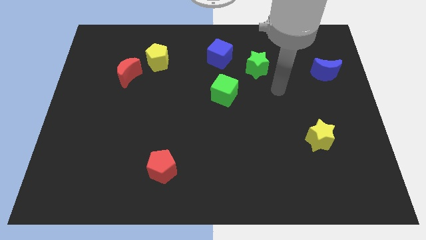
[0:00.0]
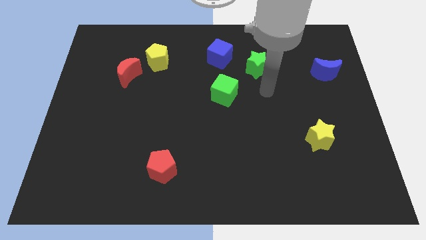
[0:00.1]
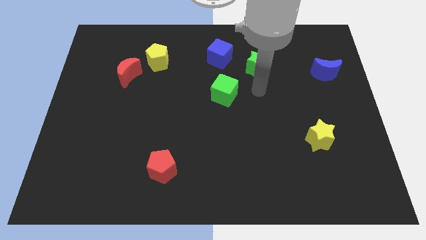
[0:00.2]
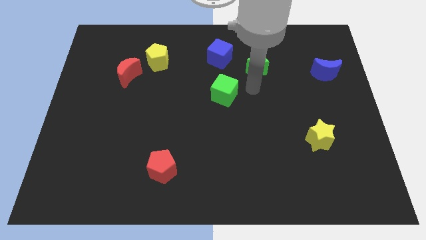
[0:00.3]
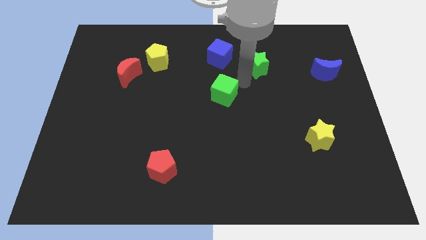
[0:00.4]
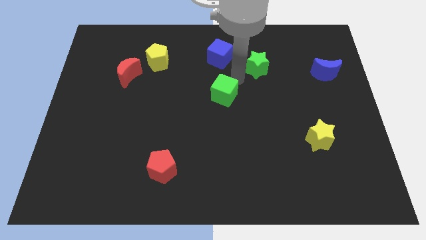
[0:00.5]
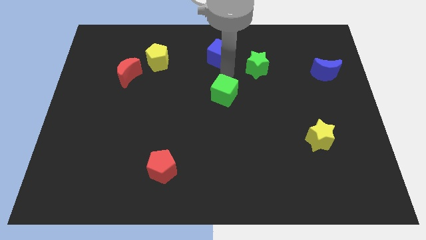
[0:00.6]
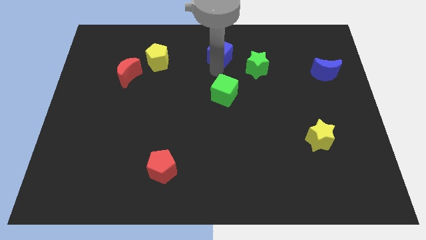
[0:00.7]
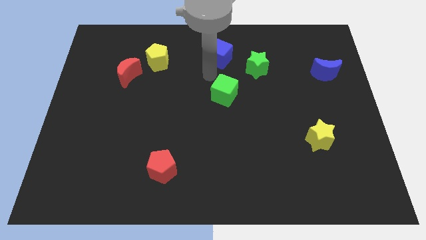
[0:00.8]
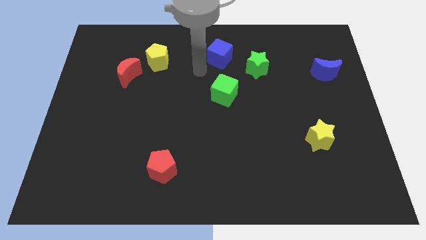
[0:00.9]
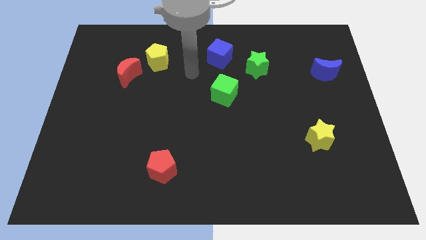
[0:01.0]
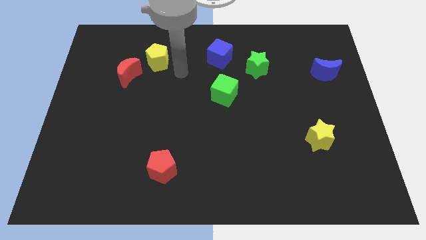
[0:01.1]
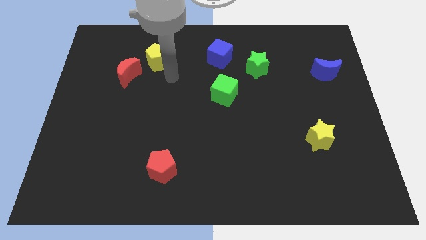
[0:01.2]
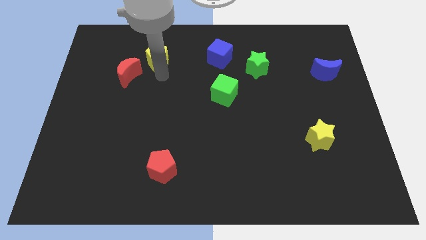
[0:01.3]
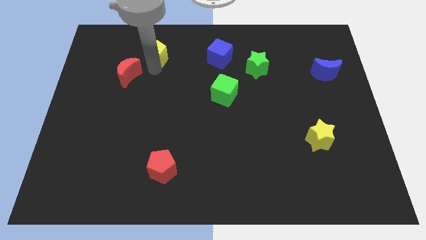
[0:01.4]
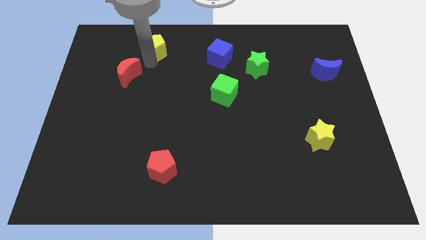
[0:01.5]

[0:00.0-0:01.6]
move the red moon away from the yellow pentagon

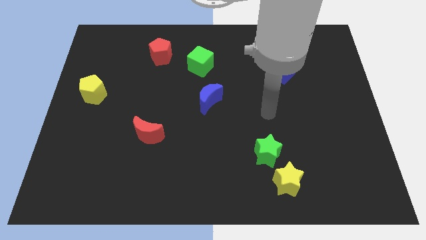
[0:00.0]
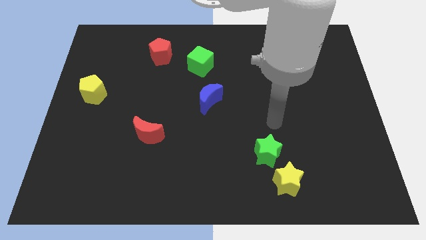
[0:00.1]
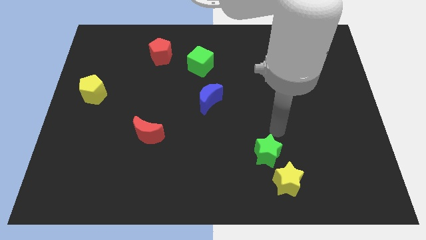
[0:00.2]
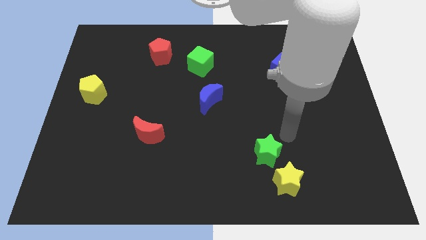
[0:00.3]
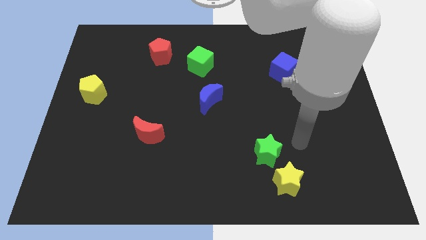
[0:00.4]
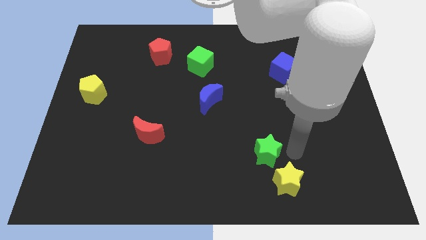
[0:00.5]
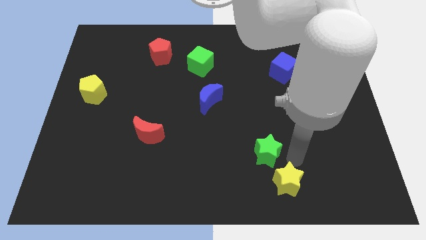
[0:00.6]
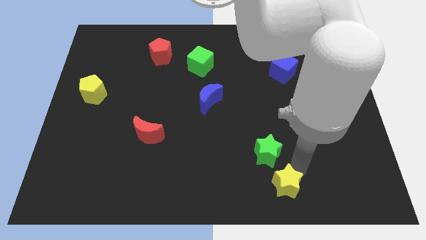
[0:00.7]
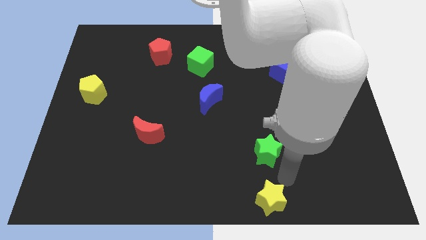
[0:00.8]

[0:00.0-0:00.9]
move the green star away from the yellow star

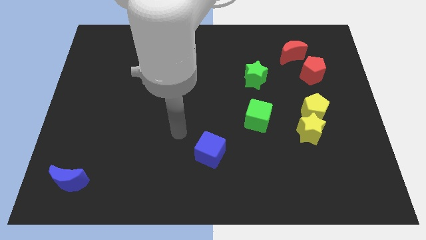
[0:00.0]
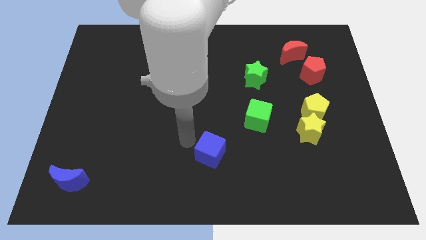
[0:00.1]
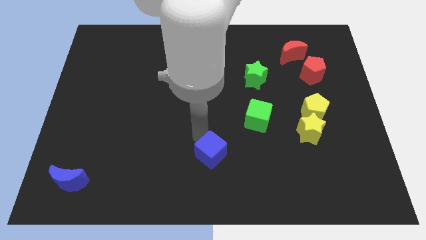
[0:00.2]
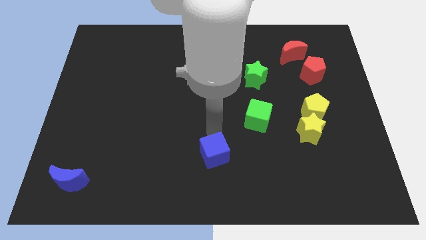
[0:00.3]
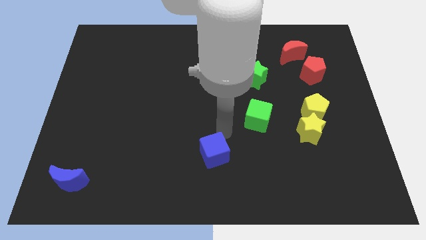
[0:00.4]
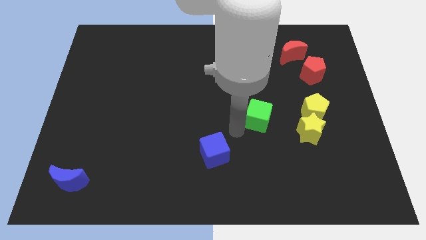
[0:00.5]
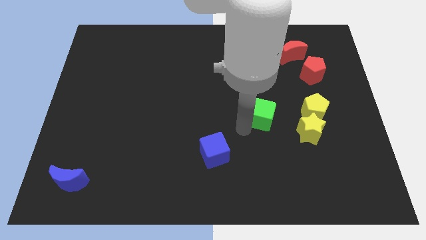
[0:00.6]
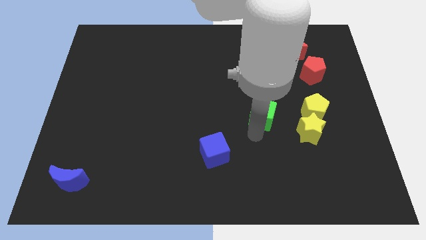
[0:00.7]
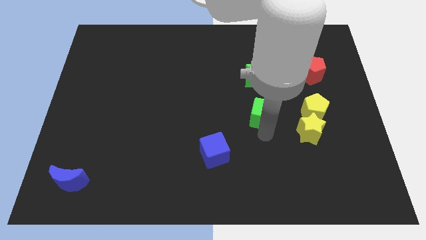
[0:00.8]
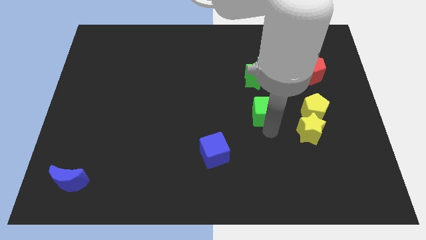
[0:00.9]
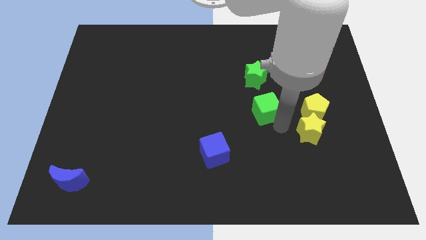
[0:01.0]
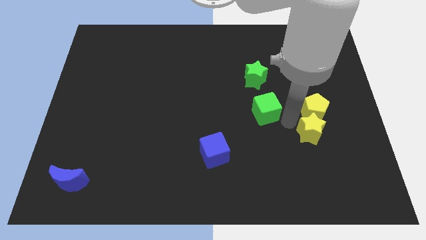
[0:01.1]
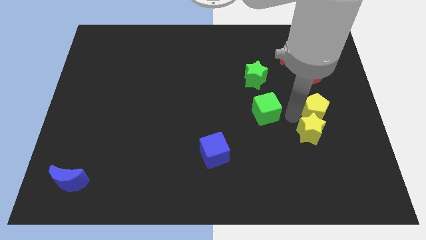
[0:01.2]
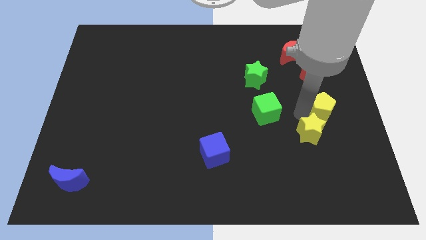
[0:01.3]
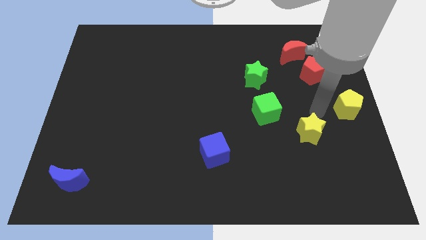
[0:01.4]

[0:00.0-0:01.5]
pull the yellow star apart from the yellow pentagon

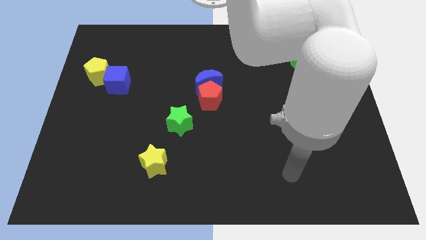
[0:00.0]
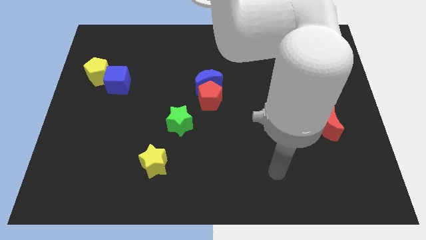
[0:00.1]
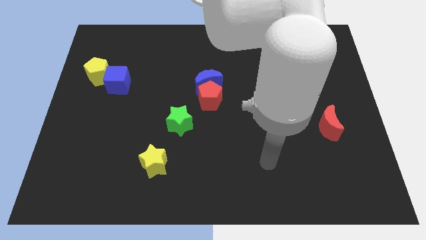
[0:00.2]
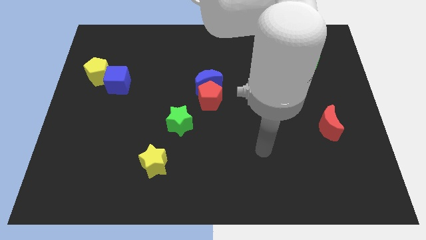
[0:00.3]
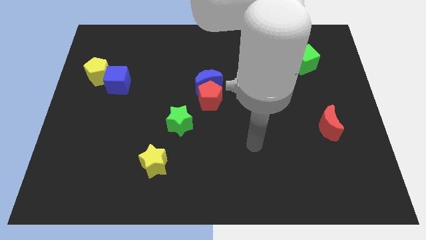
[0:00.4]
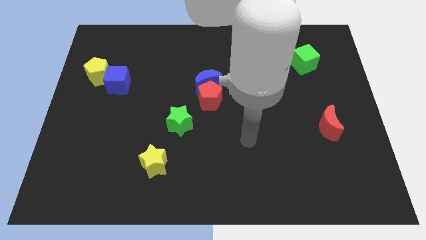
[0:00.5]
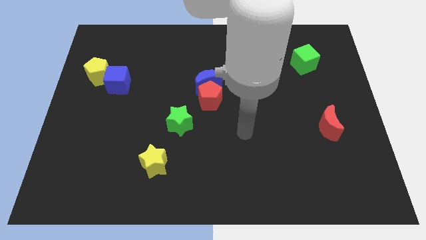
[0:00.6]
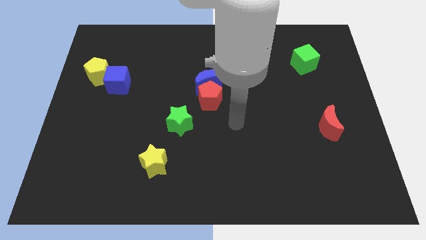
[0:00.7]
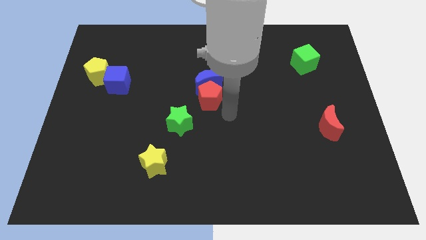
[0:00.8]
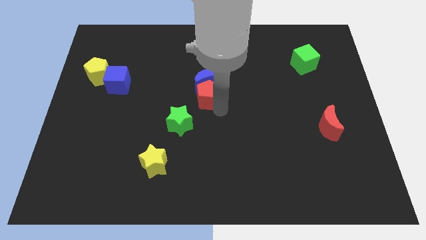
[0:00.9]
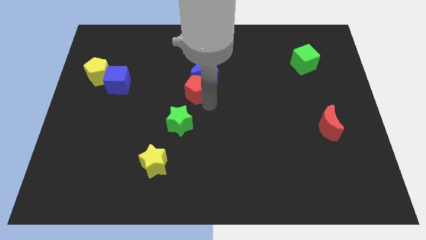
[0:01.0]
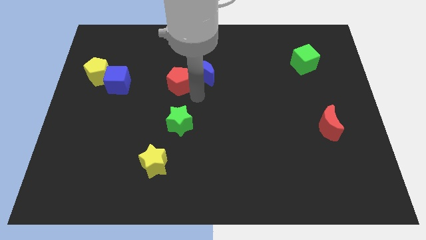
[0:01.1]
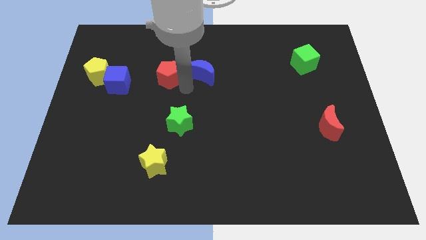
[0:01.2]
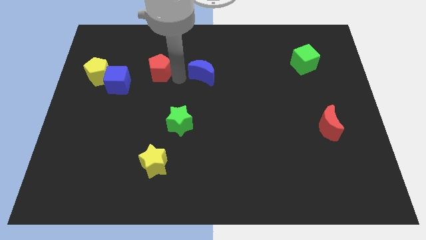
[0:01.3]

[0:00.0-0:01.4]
separate the blue moon from the red pentagon

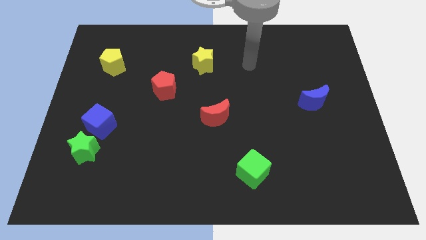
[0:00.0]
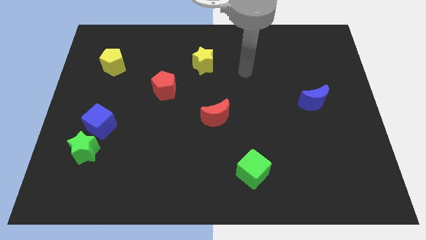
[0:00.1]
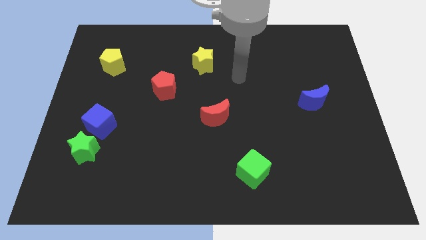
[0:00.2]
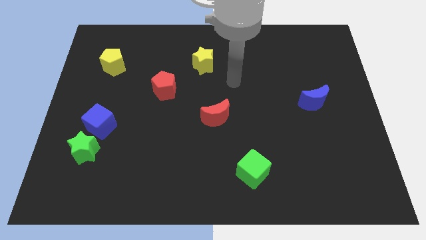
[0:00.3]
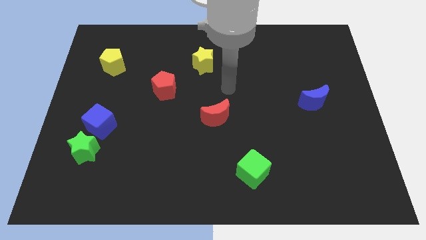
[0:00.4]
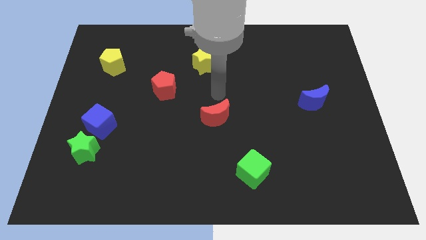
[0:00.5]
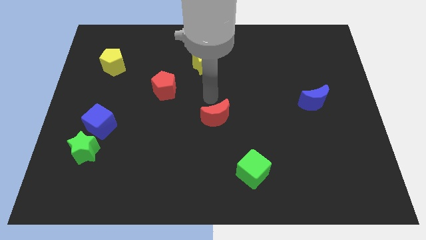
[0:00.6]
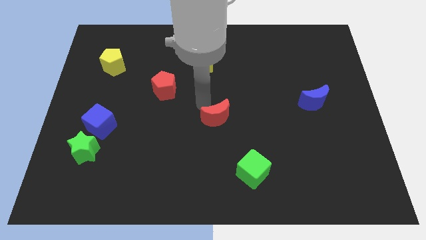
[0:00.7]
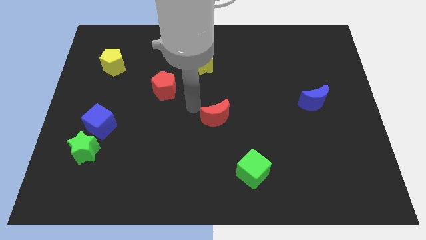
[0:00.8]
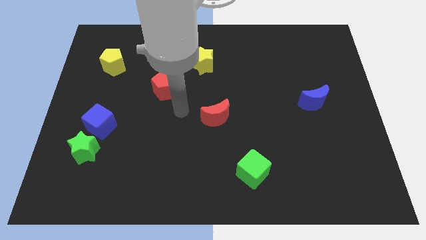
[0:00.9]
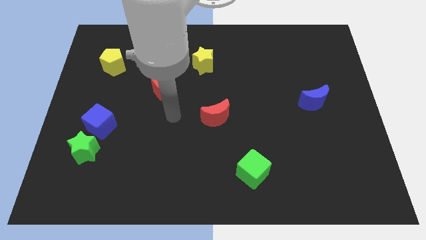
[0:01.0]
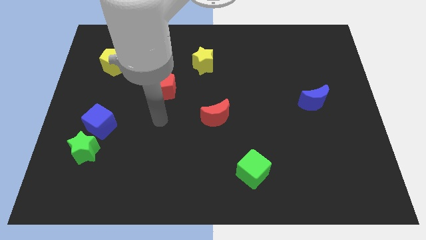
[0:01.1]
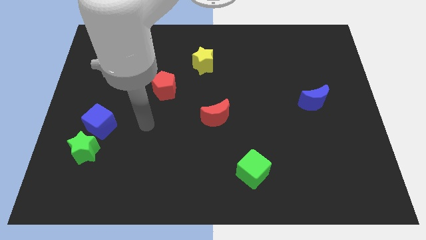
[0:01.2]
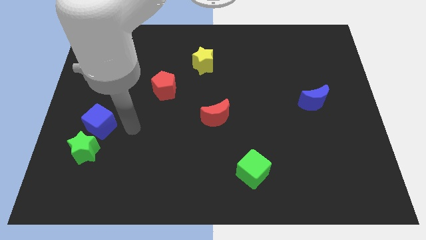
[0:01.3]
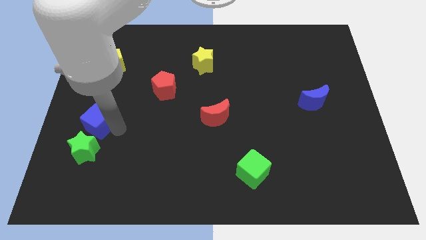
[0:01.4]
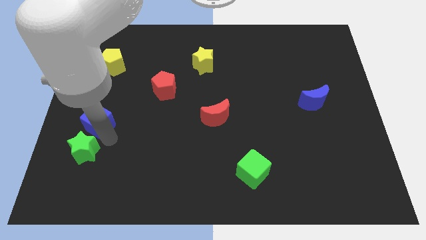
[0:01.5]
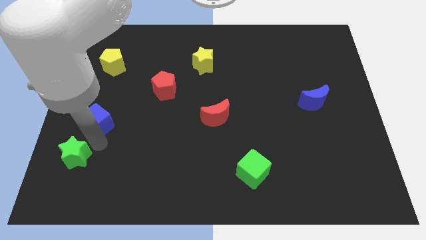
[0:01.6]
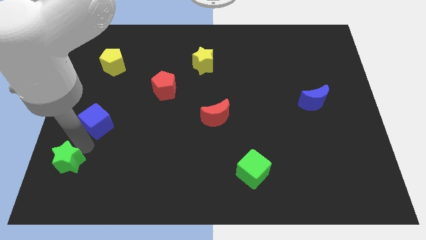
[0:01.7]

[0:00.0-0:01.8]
separate the blue cube from the green star

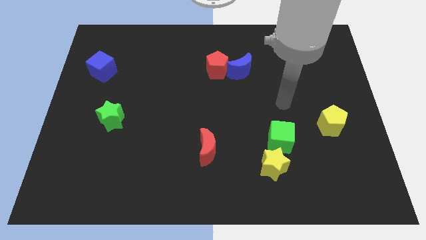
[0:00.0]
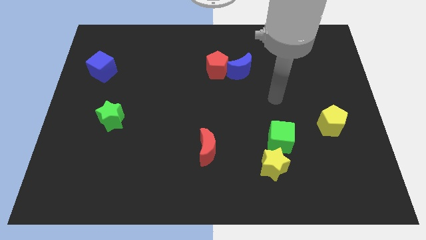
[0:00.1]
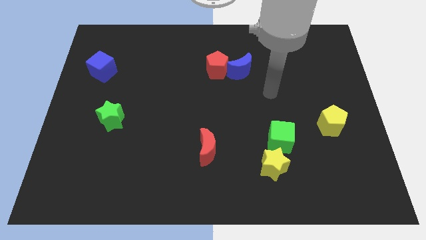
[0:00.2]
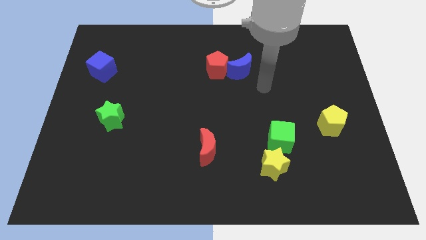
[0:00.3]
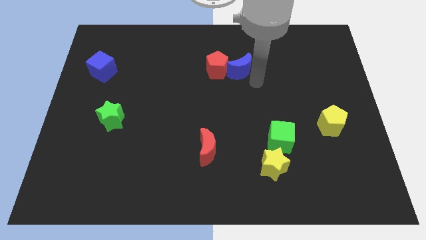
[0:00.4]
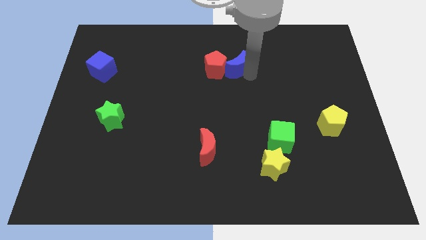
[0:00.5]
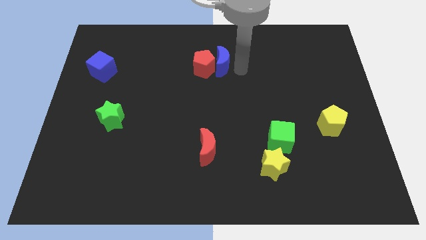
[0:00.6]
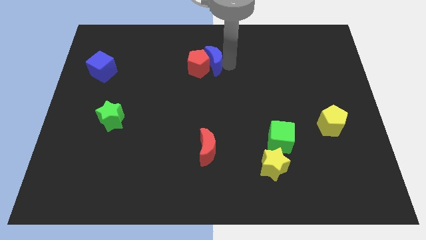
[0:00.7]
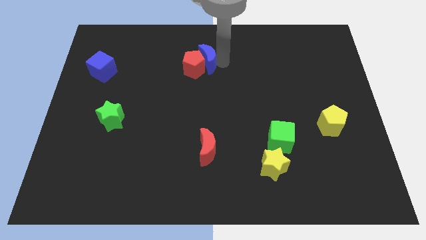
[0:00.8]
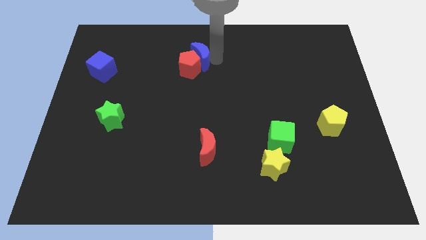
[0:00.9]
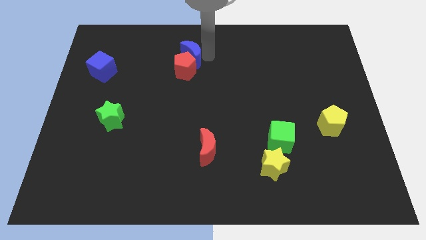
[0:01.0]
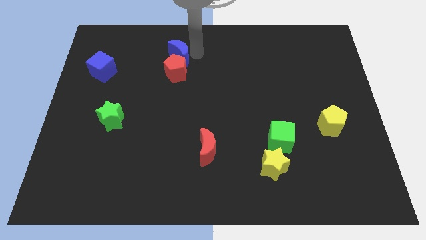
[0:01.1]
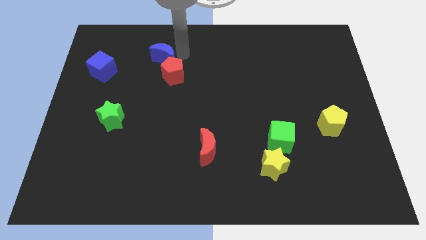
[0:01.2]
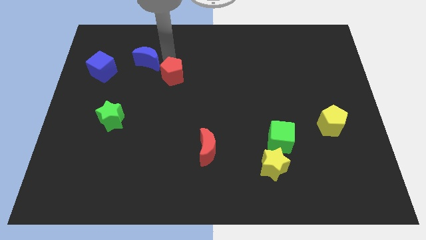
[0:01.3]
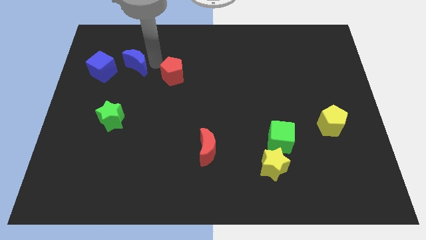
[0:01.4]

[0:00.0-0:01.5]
pull the red pentagon apart from the blue moon

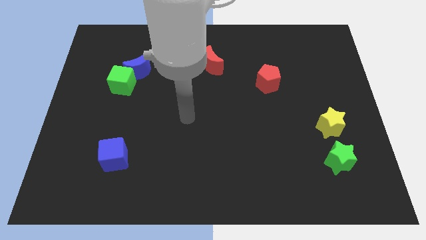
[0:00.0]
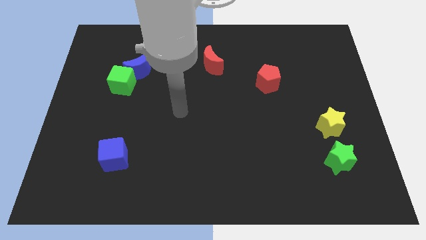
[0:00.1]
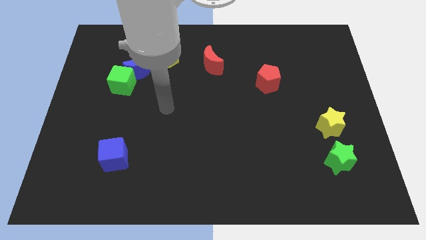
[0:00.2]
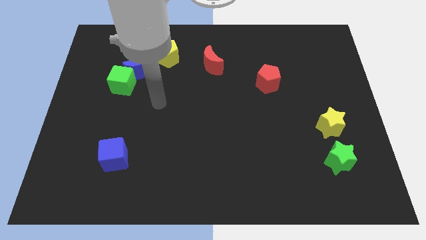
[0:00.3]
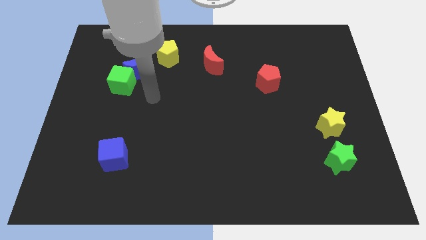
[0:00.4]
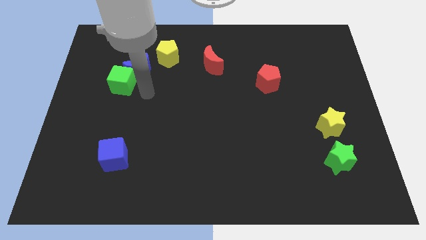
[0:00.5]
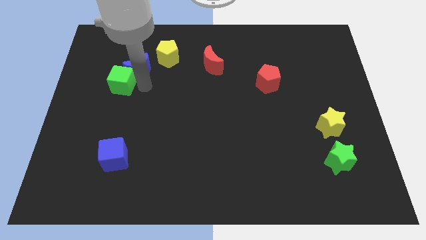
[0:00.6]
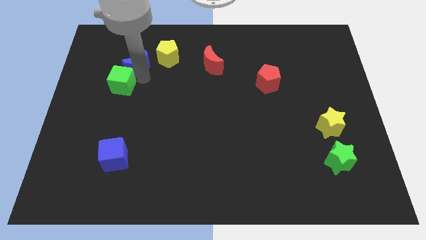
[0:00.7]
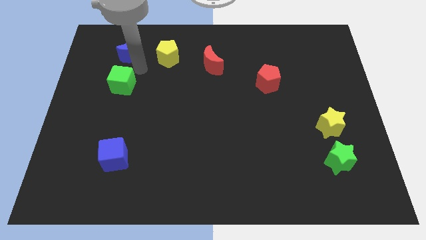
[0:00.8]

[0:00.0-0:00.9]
move the green cube away from the blue moon
